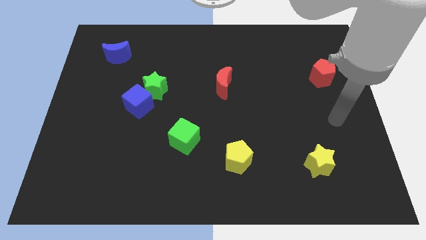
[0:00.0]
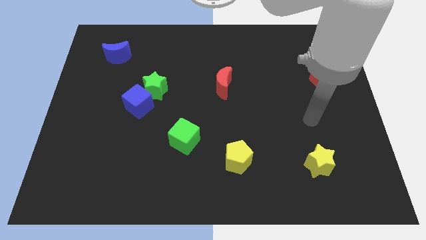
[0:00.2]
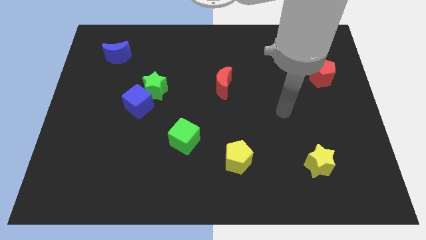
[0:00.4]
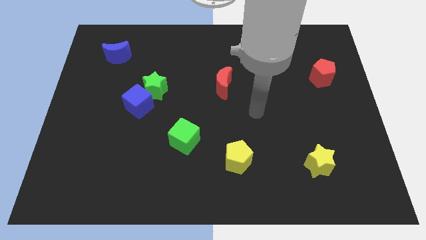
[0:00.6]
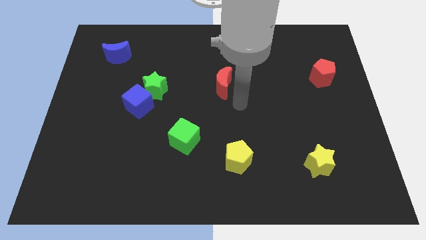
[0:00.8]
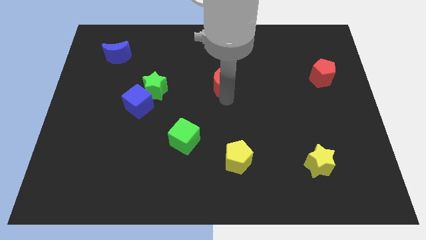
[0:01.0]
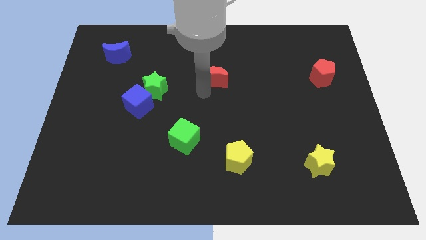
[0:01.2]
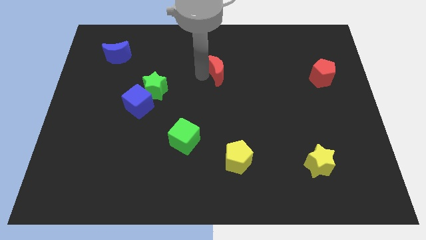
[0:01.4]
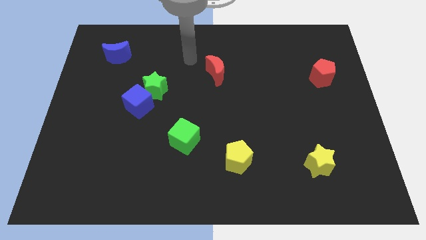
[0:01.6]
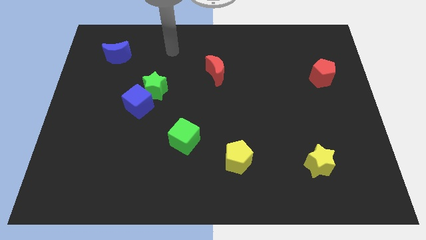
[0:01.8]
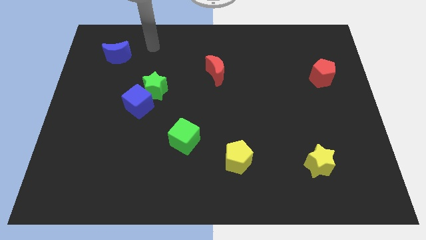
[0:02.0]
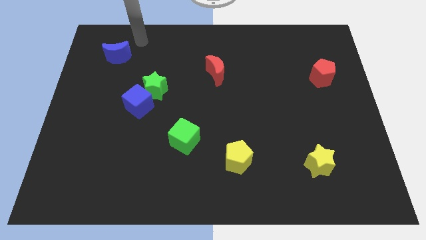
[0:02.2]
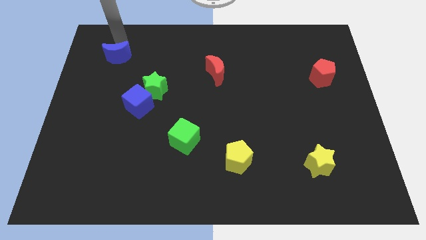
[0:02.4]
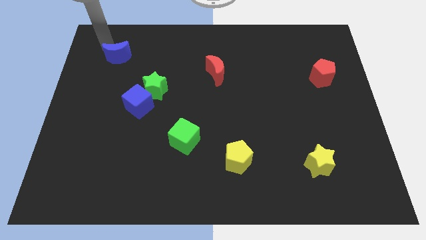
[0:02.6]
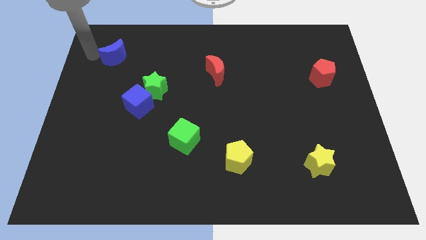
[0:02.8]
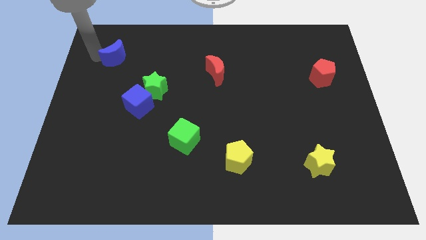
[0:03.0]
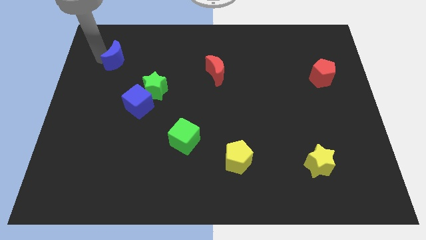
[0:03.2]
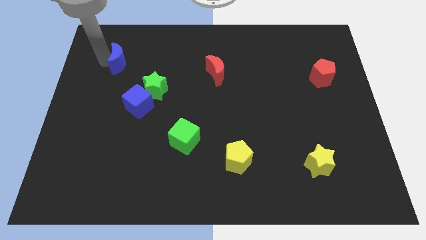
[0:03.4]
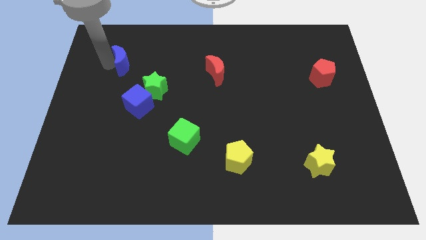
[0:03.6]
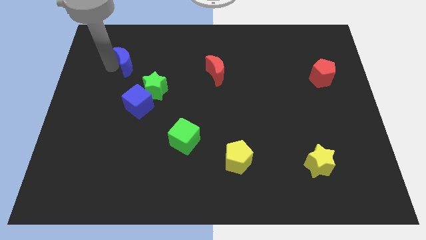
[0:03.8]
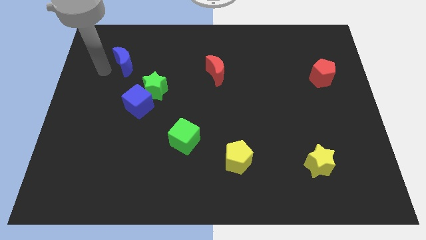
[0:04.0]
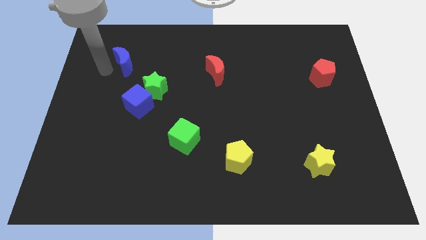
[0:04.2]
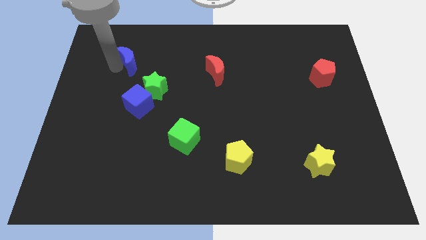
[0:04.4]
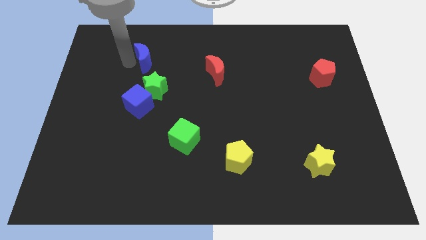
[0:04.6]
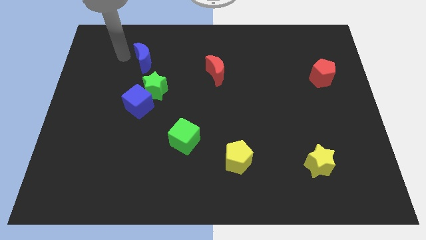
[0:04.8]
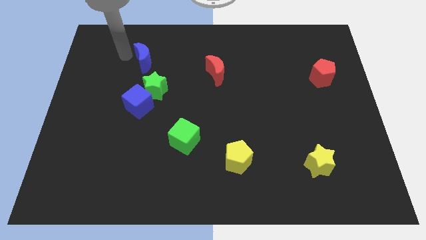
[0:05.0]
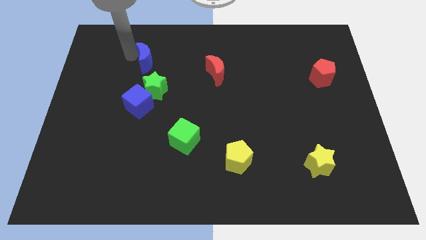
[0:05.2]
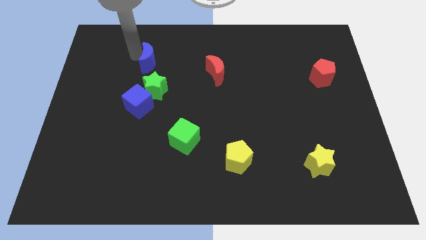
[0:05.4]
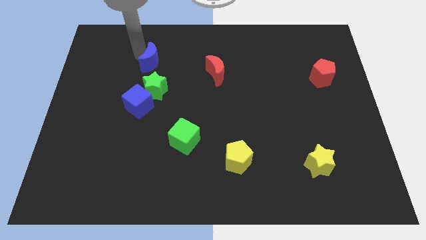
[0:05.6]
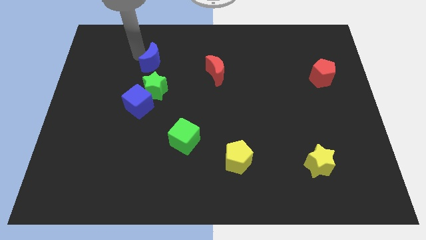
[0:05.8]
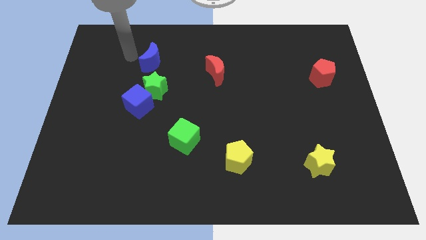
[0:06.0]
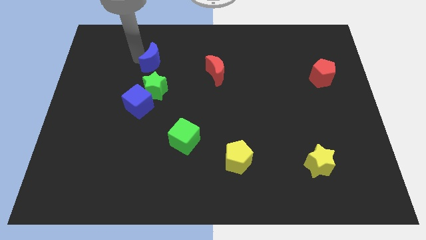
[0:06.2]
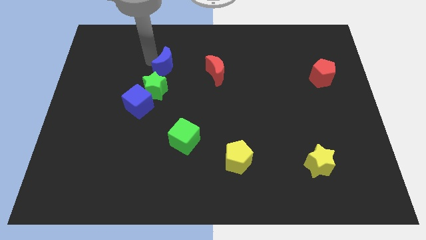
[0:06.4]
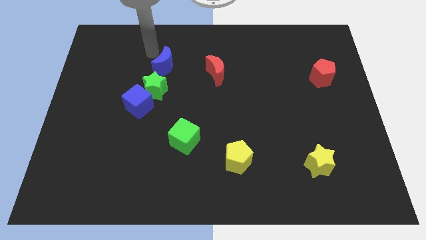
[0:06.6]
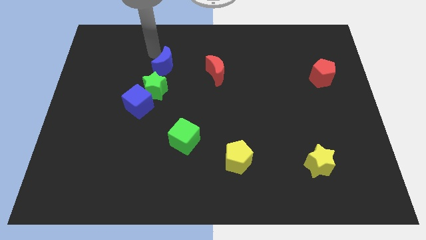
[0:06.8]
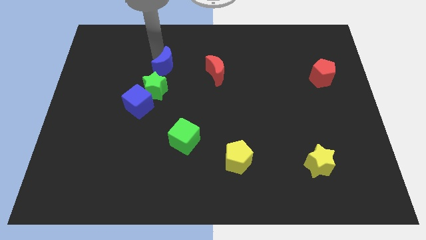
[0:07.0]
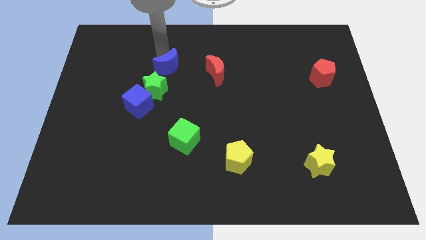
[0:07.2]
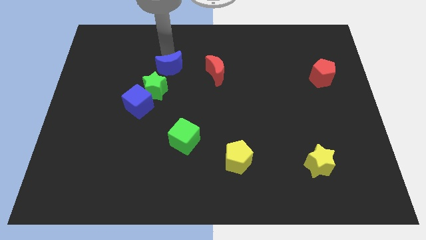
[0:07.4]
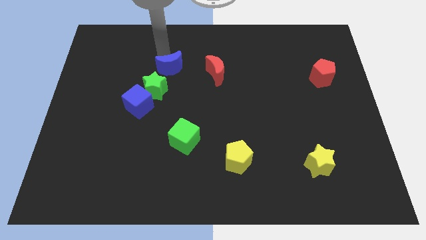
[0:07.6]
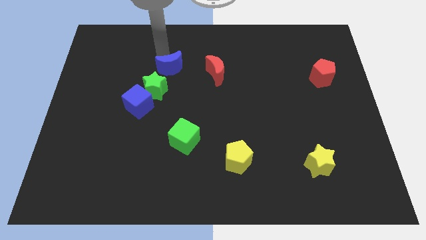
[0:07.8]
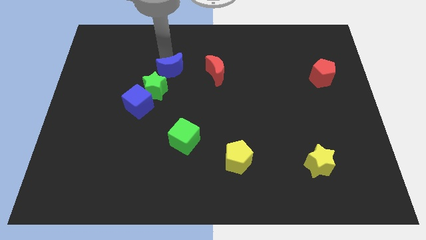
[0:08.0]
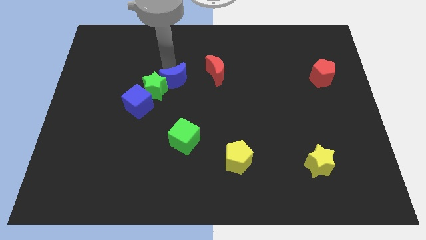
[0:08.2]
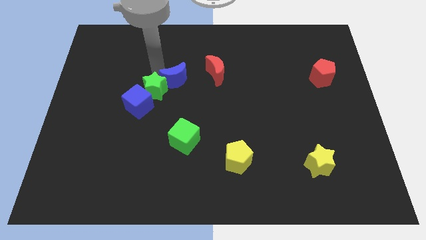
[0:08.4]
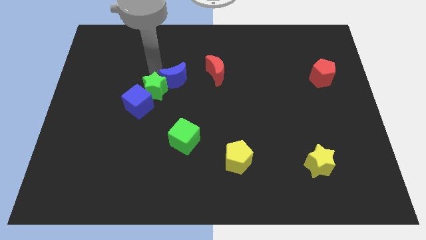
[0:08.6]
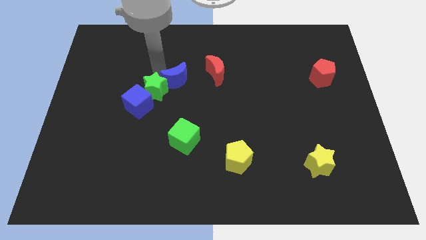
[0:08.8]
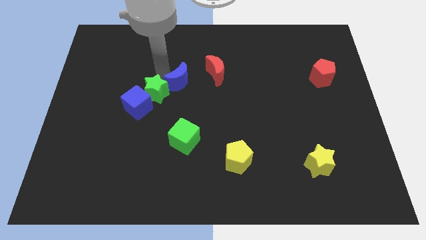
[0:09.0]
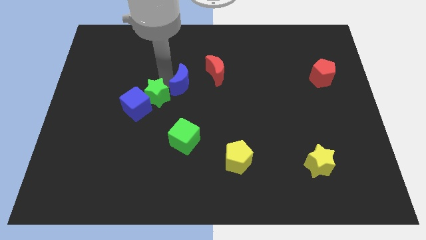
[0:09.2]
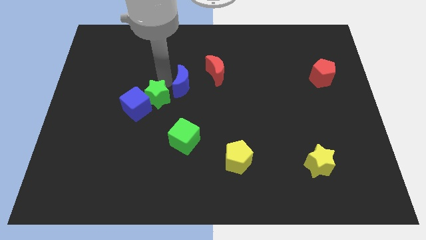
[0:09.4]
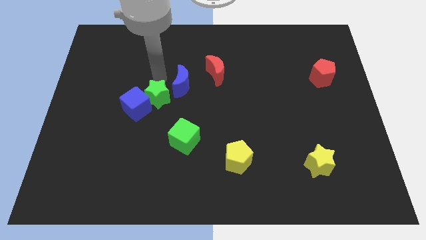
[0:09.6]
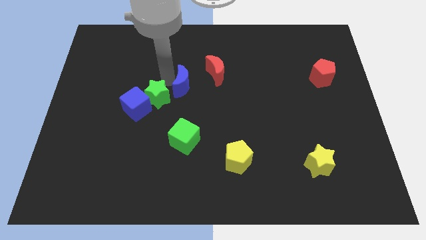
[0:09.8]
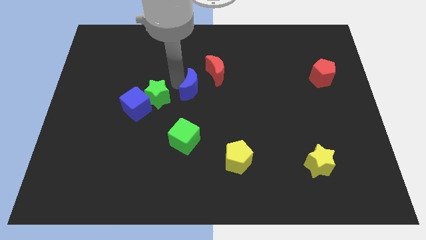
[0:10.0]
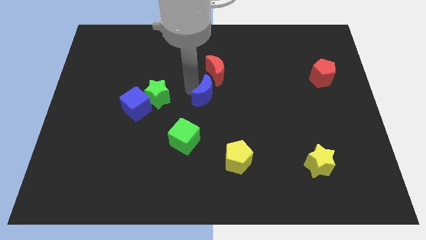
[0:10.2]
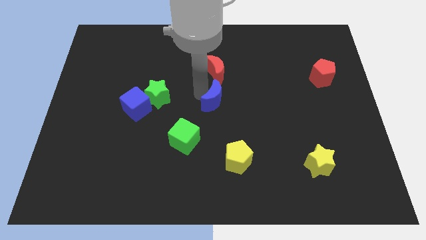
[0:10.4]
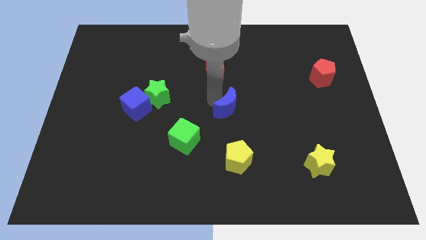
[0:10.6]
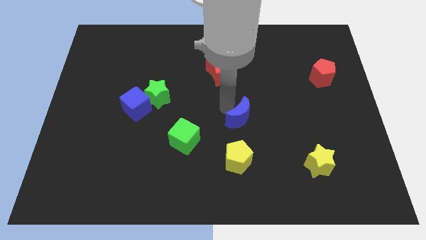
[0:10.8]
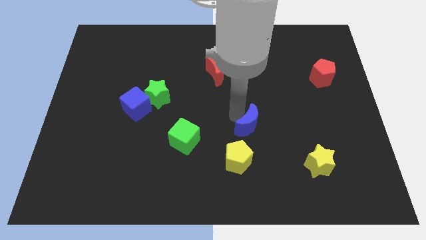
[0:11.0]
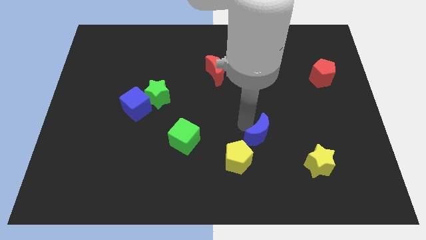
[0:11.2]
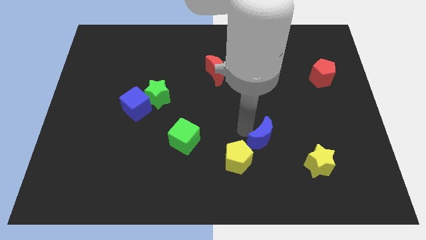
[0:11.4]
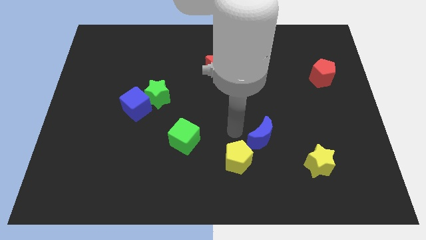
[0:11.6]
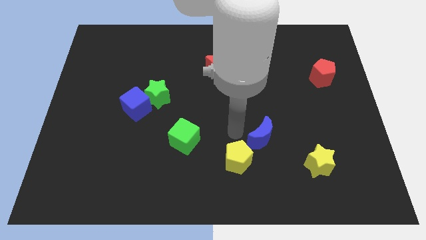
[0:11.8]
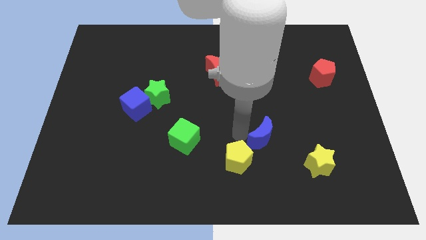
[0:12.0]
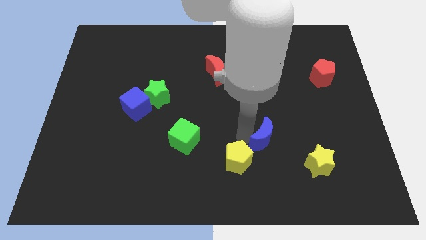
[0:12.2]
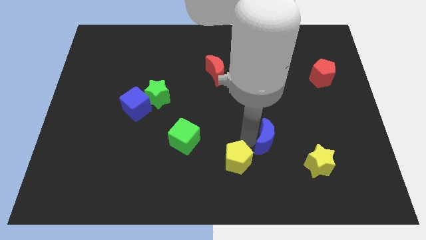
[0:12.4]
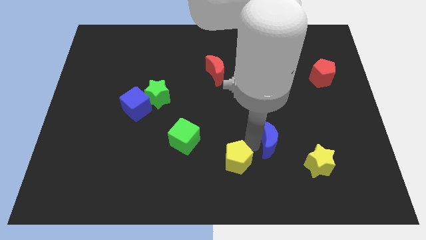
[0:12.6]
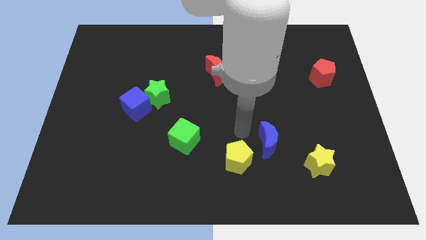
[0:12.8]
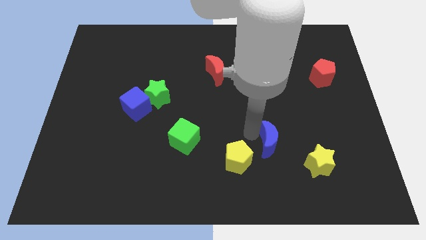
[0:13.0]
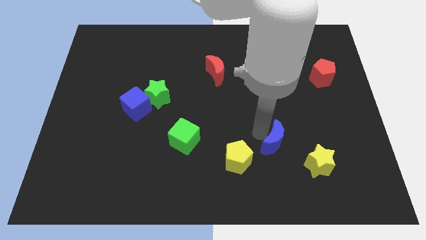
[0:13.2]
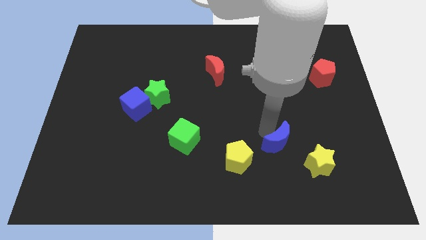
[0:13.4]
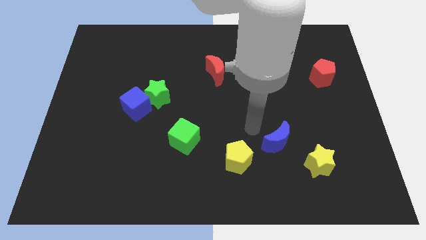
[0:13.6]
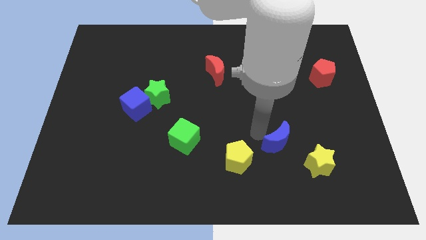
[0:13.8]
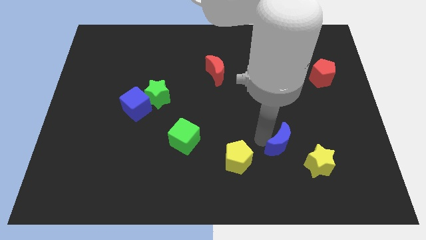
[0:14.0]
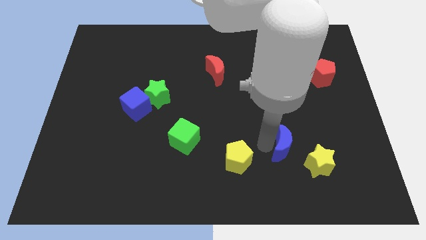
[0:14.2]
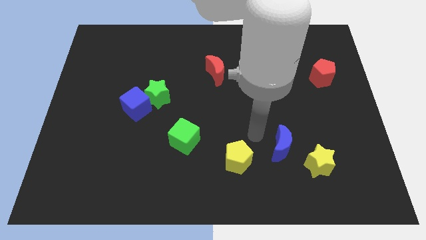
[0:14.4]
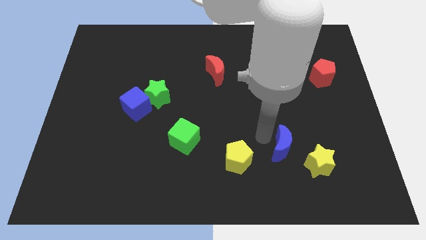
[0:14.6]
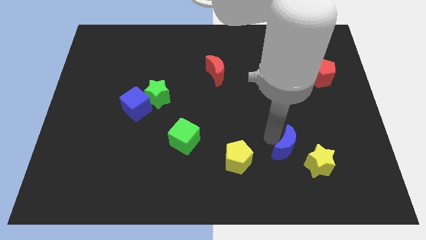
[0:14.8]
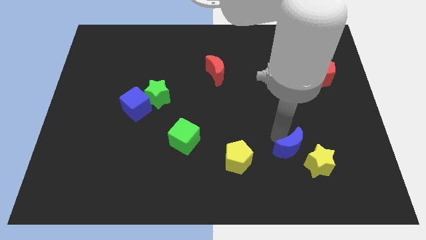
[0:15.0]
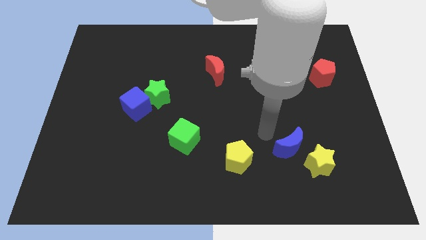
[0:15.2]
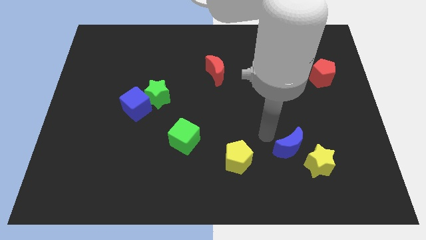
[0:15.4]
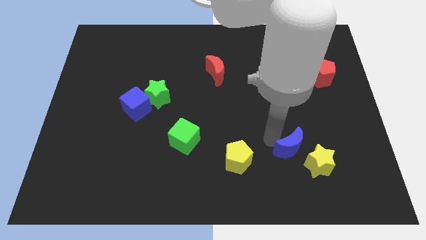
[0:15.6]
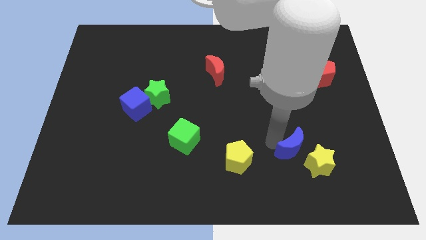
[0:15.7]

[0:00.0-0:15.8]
slide the blue moon close to the yellow star
